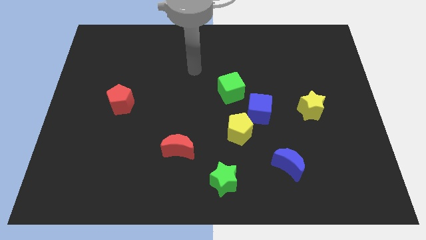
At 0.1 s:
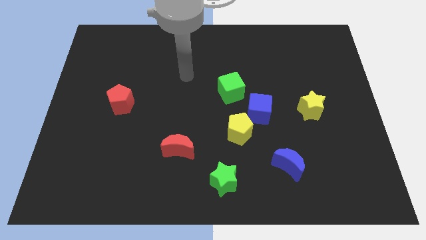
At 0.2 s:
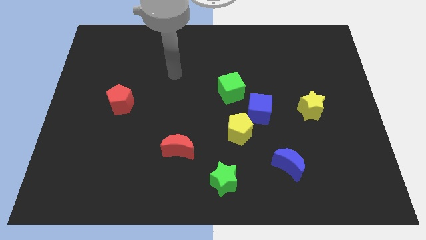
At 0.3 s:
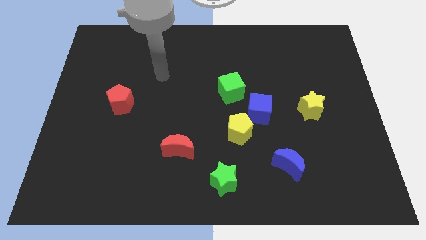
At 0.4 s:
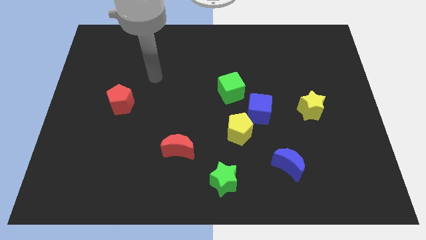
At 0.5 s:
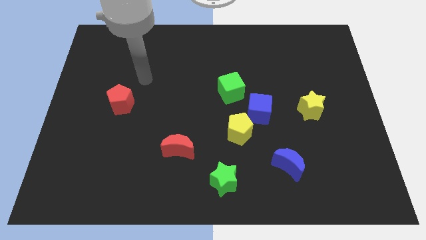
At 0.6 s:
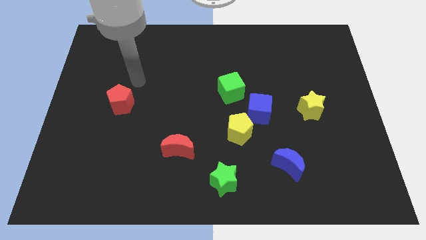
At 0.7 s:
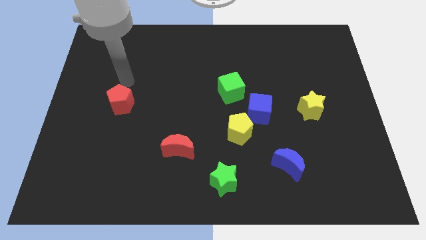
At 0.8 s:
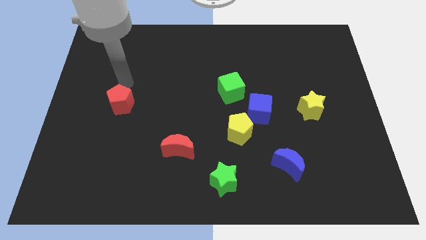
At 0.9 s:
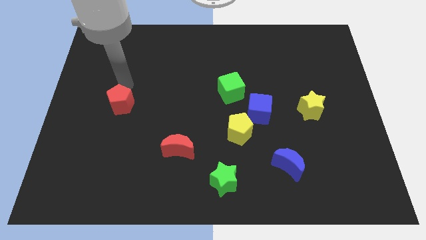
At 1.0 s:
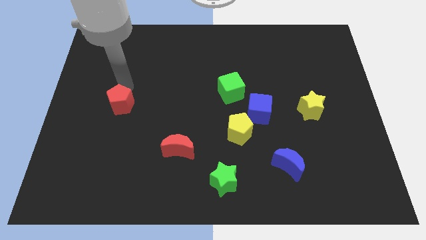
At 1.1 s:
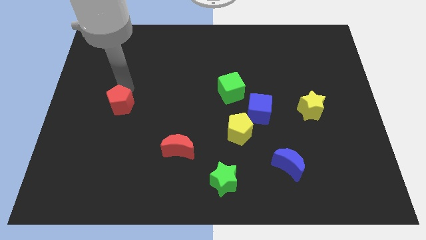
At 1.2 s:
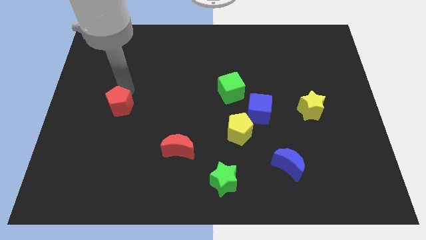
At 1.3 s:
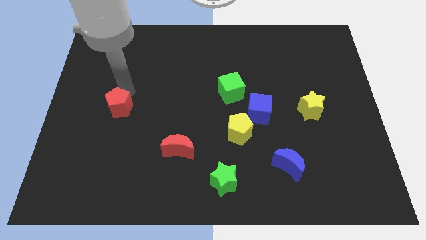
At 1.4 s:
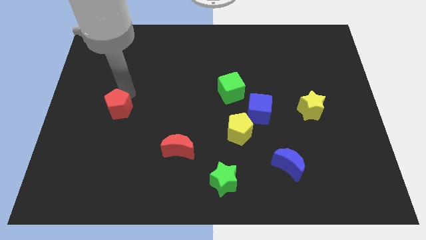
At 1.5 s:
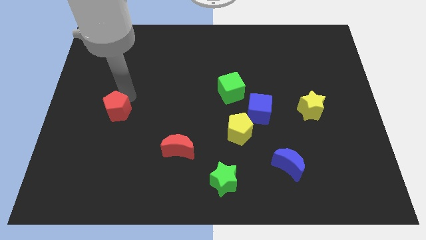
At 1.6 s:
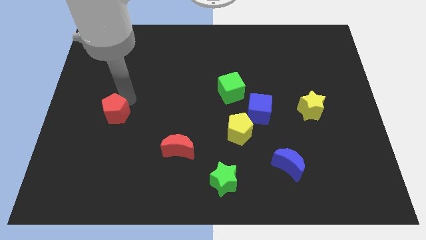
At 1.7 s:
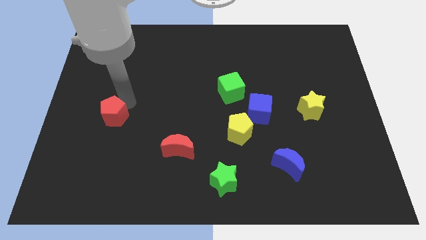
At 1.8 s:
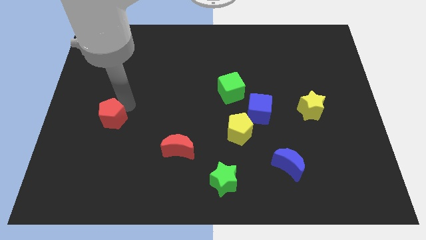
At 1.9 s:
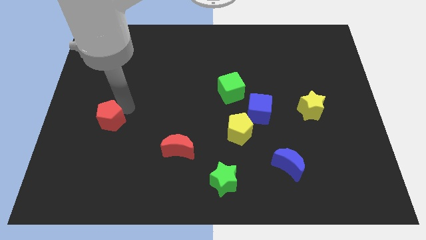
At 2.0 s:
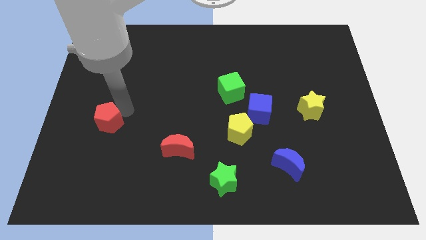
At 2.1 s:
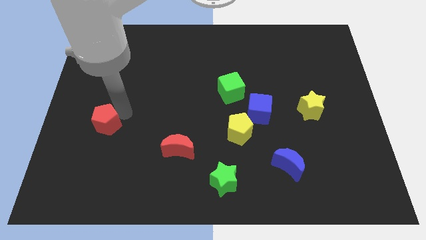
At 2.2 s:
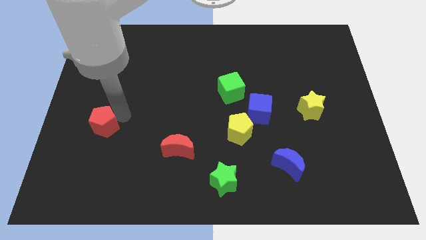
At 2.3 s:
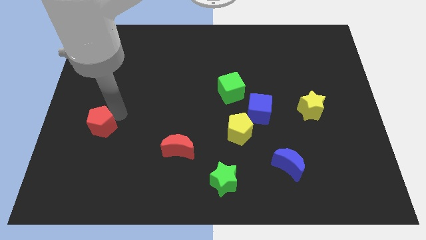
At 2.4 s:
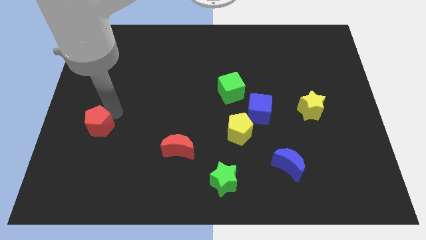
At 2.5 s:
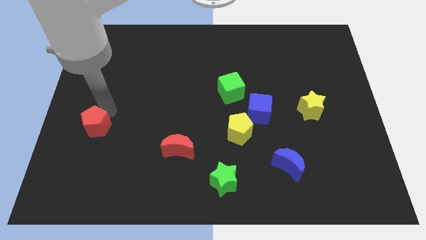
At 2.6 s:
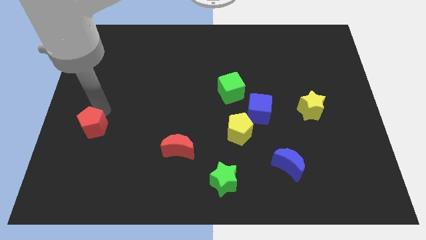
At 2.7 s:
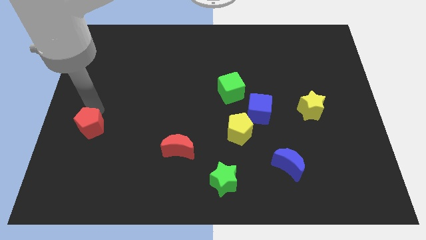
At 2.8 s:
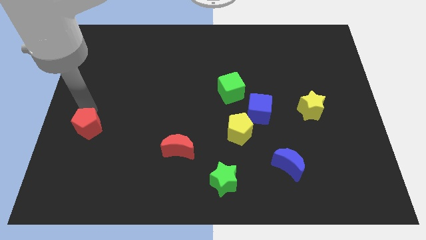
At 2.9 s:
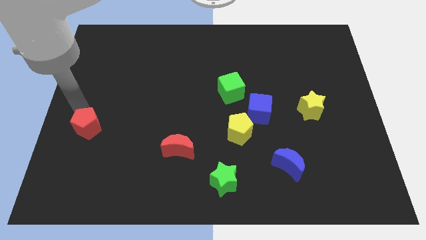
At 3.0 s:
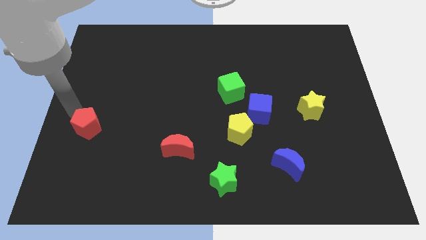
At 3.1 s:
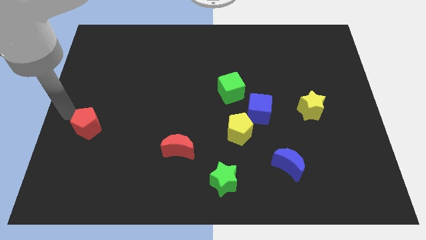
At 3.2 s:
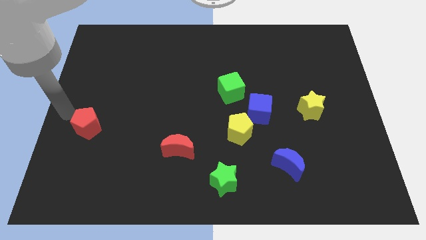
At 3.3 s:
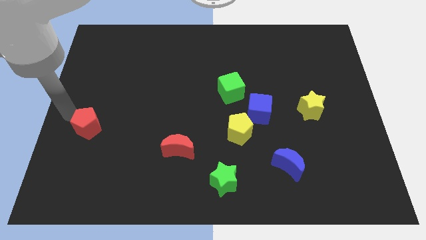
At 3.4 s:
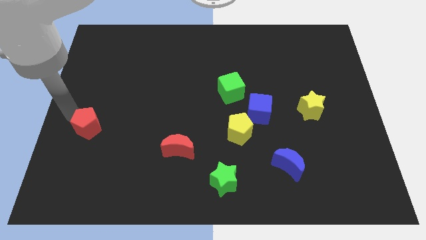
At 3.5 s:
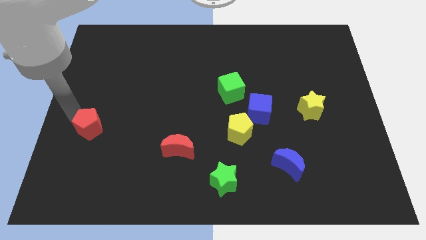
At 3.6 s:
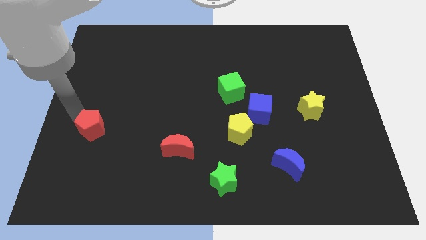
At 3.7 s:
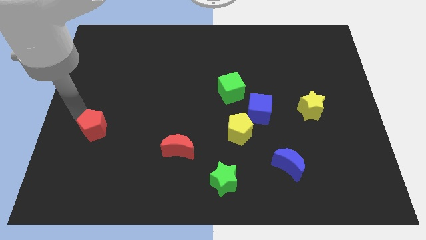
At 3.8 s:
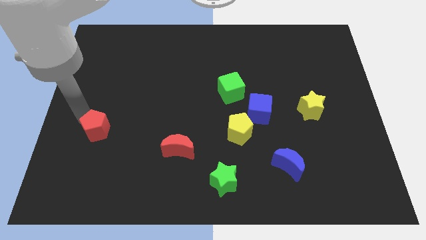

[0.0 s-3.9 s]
move the red pentagon a bit down

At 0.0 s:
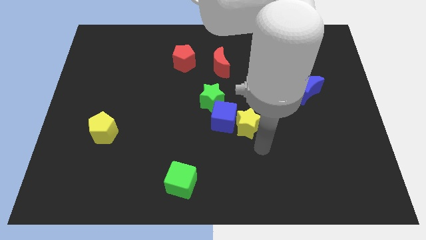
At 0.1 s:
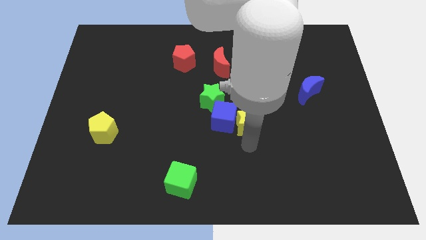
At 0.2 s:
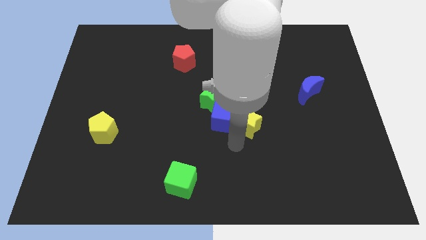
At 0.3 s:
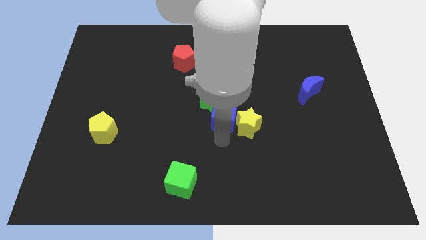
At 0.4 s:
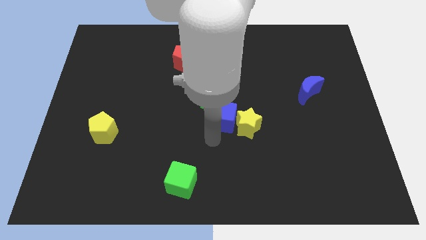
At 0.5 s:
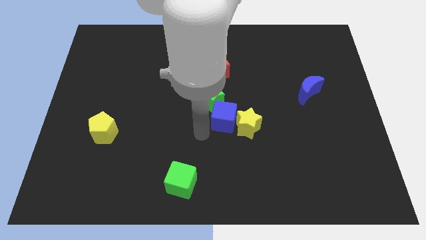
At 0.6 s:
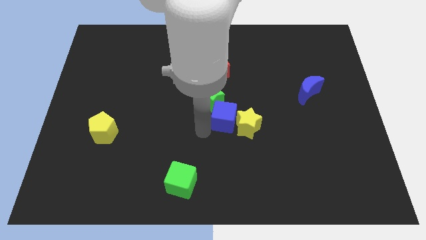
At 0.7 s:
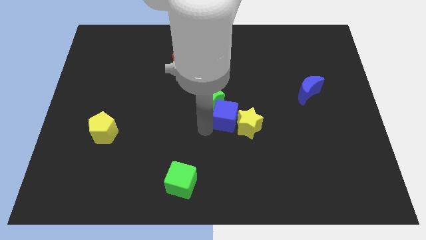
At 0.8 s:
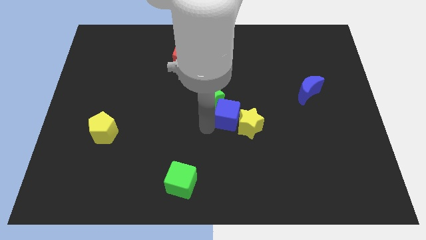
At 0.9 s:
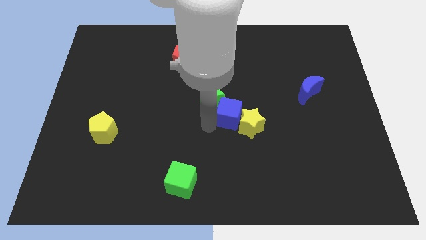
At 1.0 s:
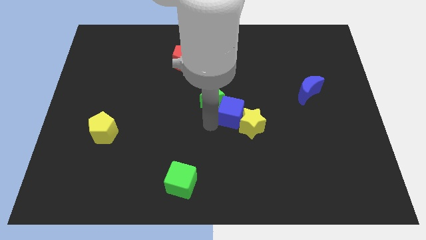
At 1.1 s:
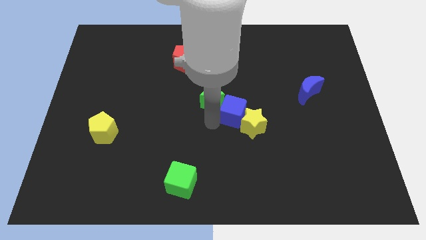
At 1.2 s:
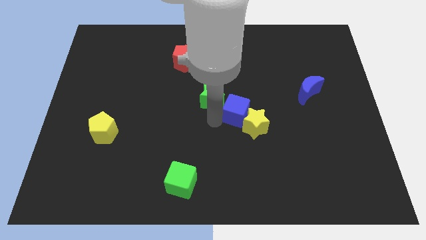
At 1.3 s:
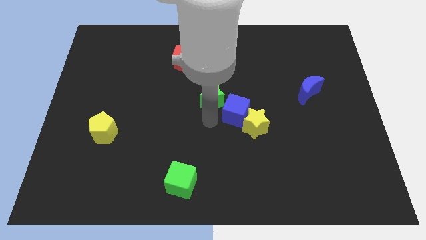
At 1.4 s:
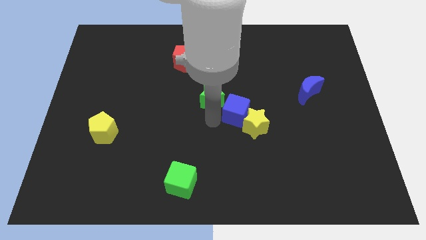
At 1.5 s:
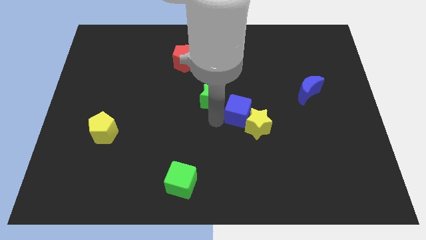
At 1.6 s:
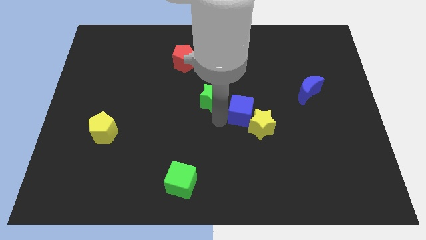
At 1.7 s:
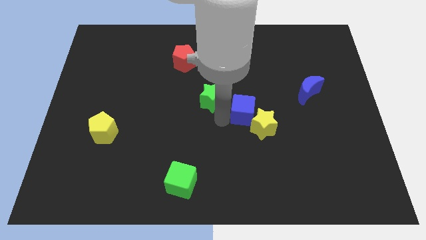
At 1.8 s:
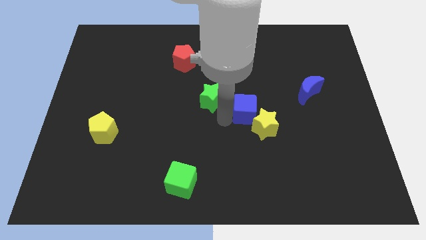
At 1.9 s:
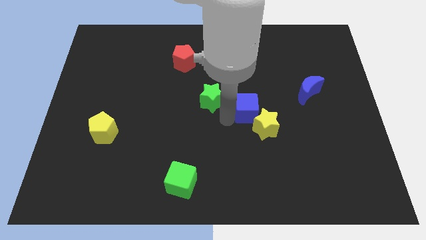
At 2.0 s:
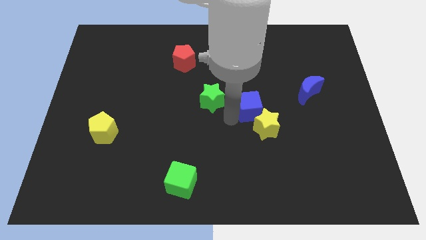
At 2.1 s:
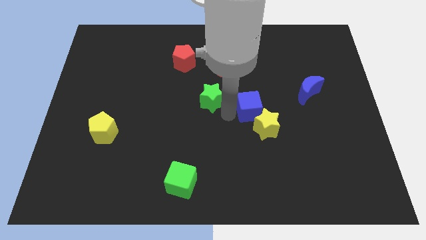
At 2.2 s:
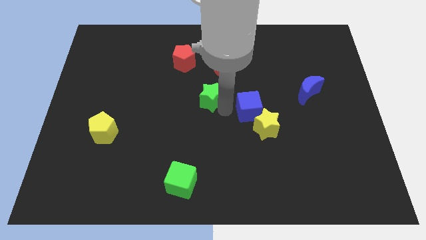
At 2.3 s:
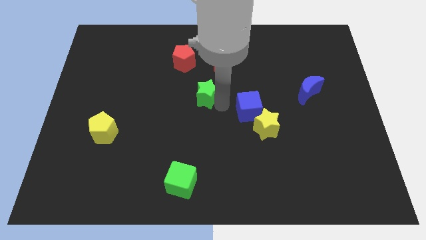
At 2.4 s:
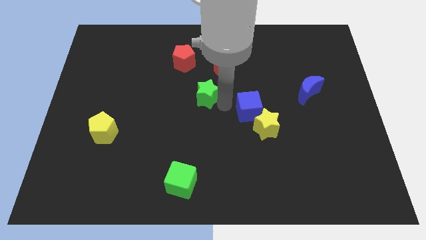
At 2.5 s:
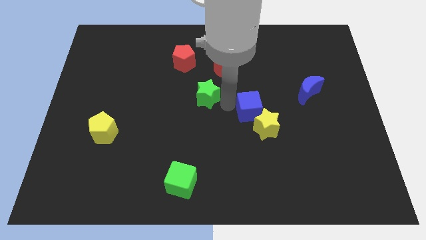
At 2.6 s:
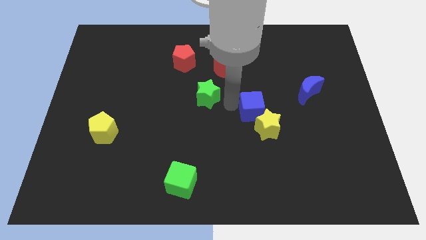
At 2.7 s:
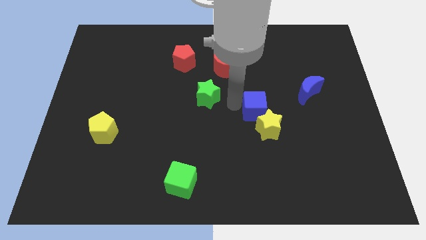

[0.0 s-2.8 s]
move the blue cube right a little

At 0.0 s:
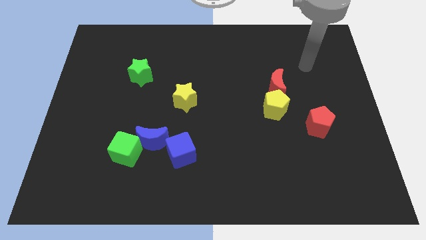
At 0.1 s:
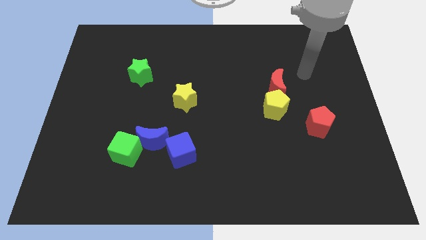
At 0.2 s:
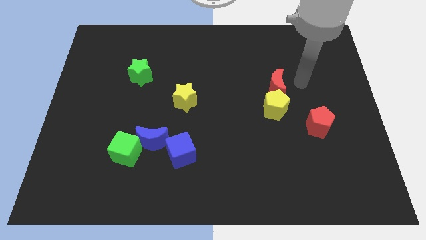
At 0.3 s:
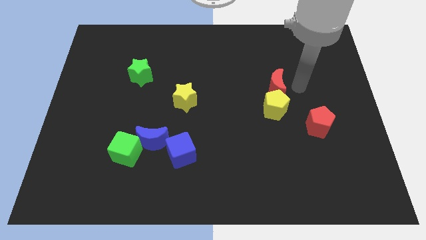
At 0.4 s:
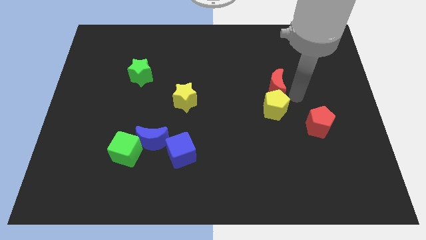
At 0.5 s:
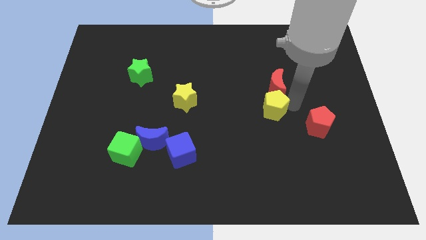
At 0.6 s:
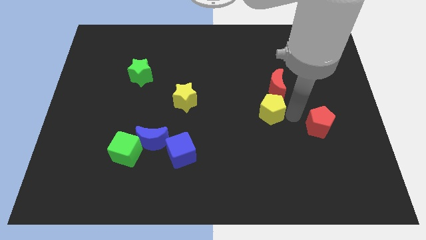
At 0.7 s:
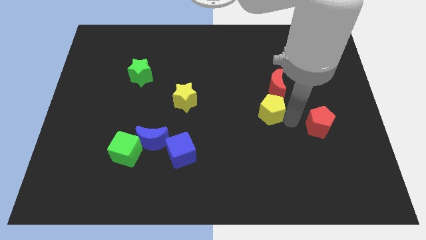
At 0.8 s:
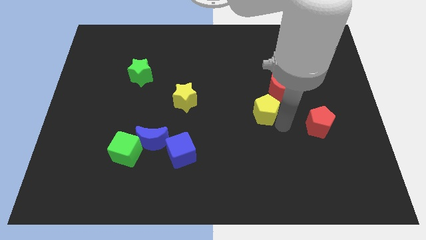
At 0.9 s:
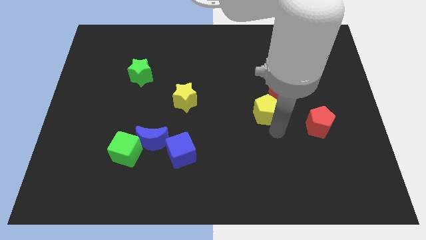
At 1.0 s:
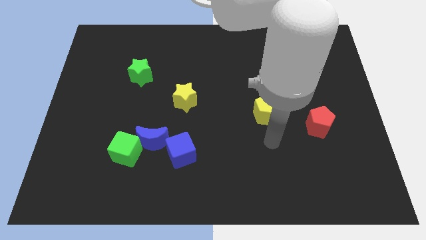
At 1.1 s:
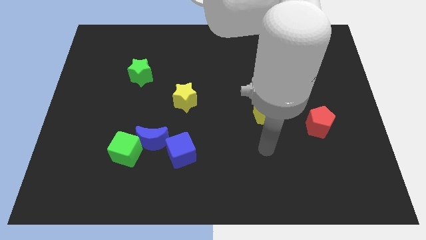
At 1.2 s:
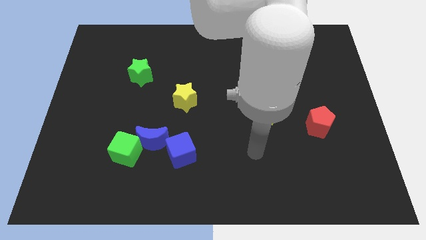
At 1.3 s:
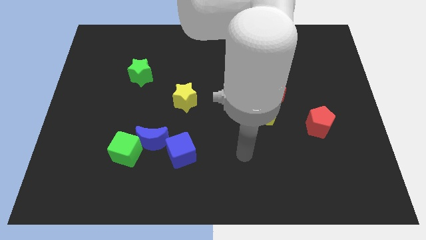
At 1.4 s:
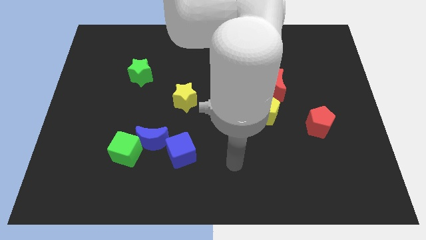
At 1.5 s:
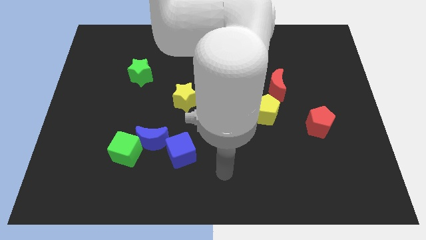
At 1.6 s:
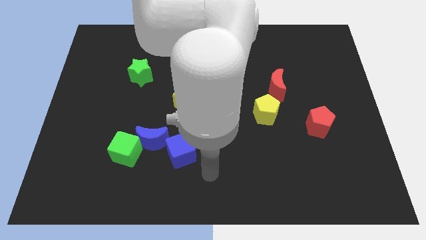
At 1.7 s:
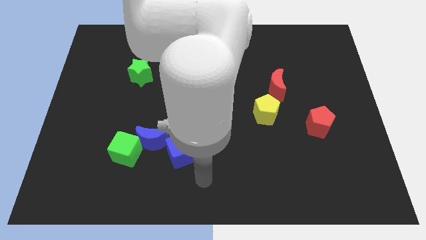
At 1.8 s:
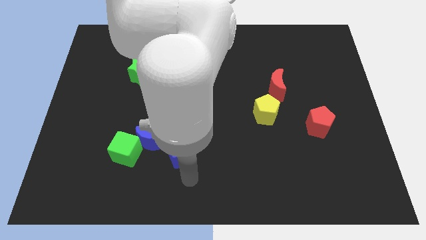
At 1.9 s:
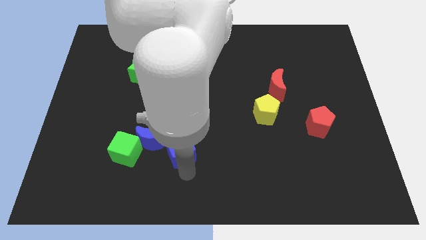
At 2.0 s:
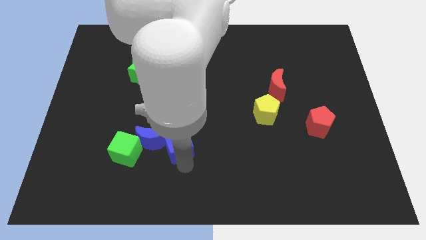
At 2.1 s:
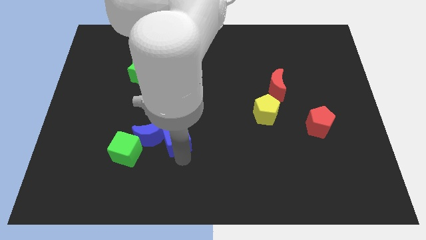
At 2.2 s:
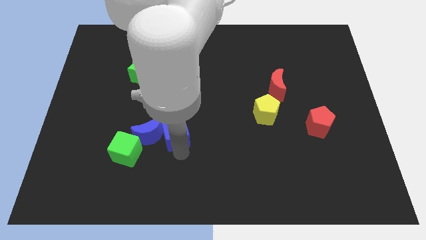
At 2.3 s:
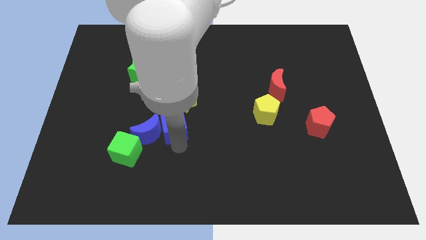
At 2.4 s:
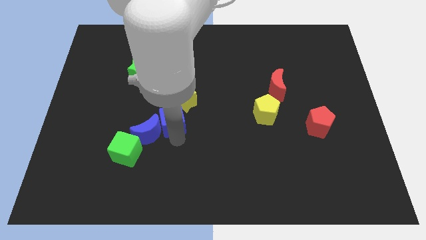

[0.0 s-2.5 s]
slightly push the blue cube up
